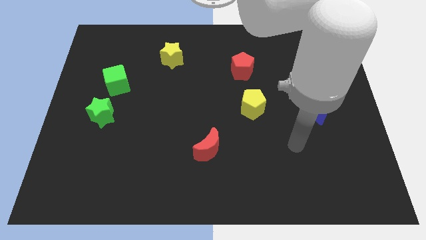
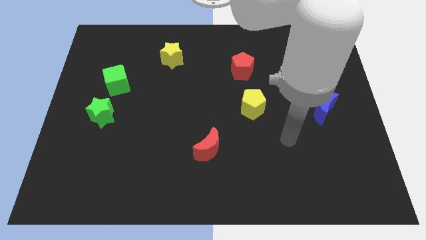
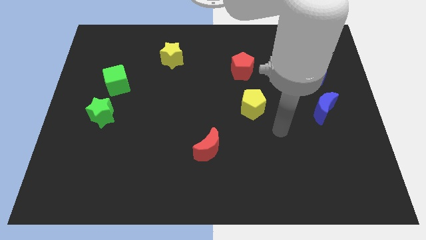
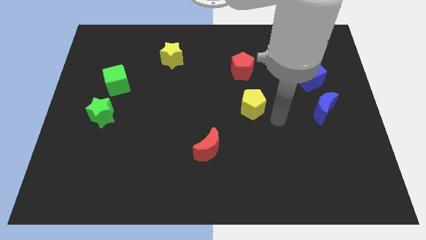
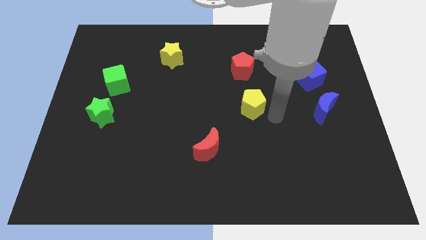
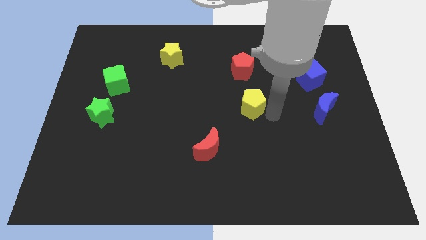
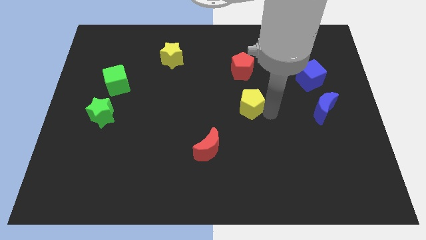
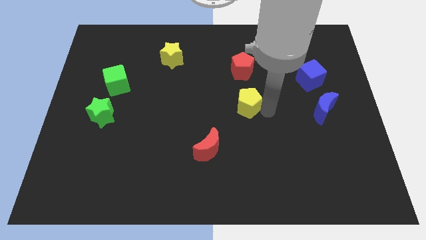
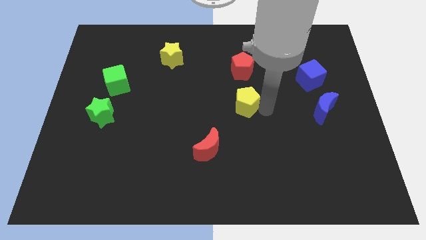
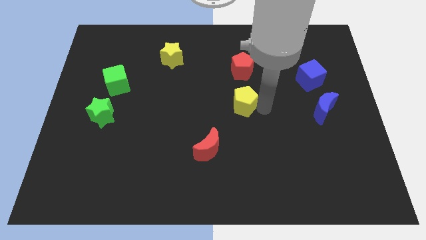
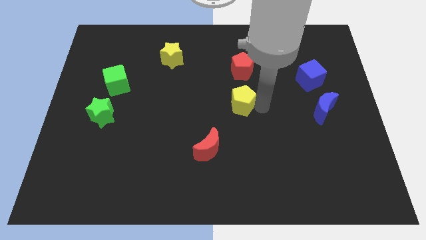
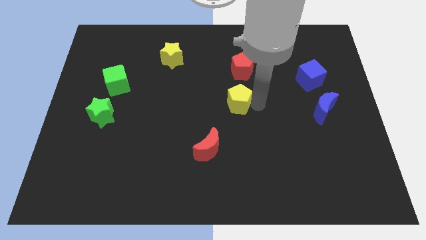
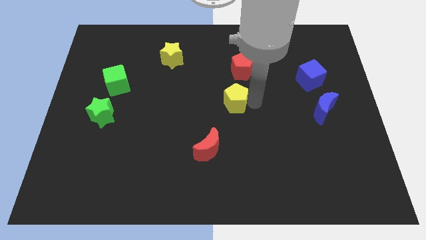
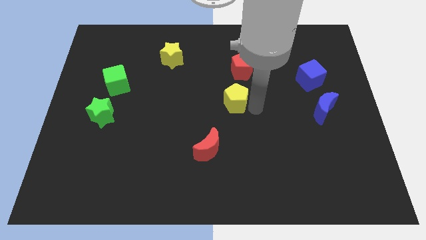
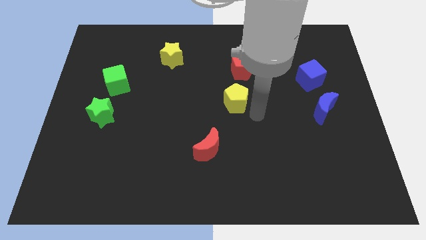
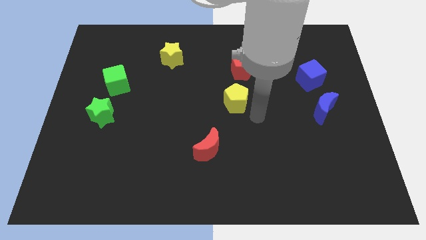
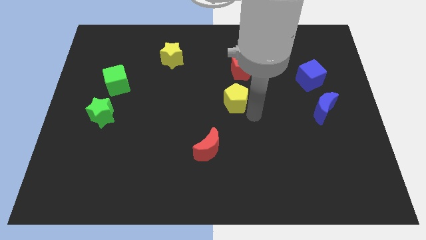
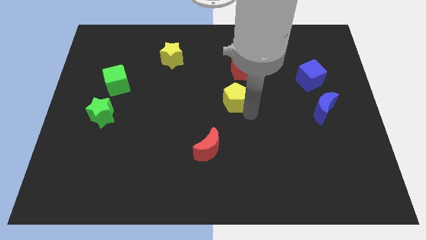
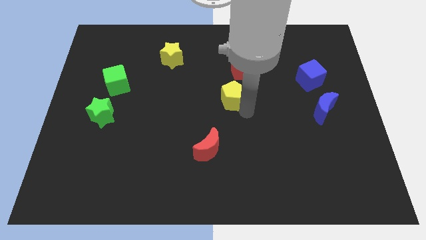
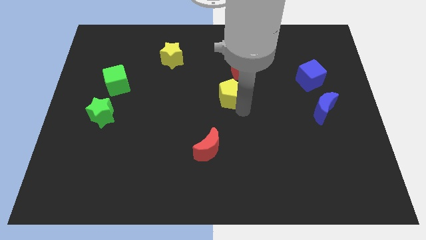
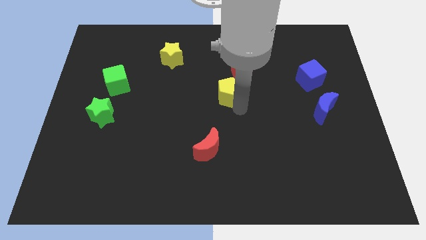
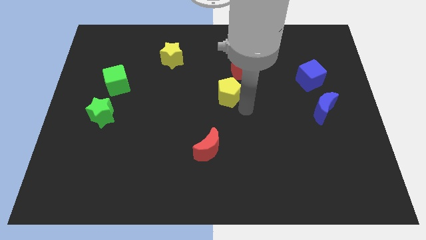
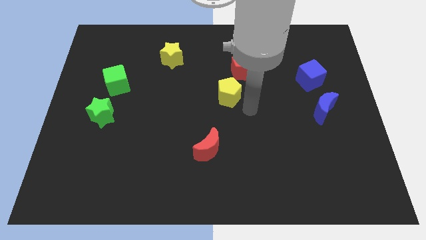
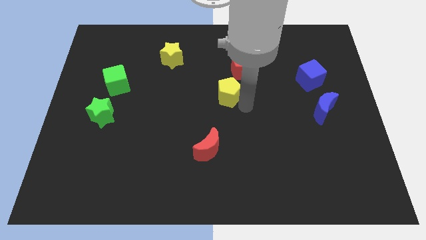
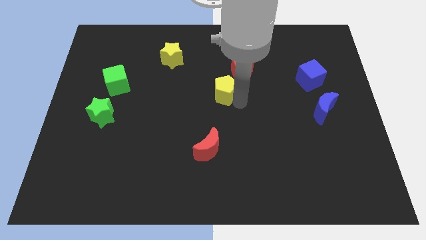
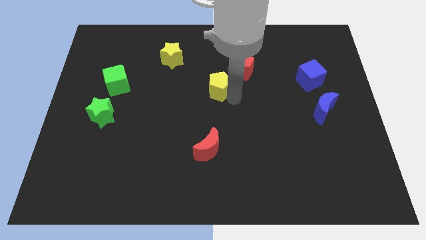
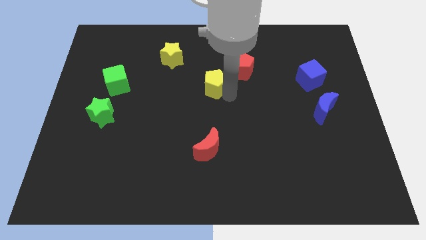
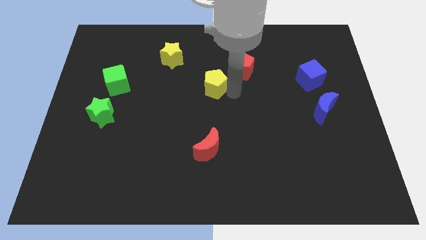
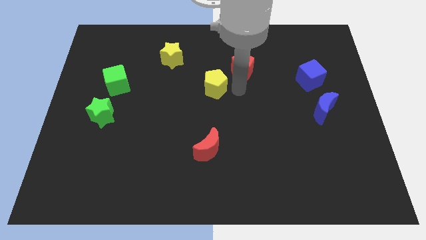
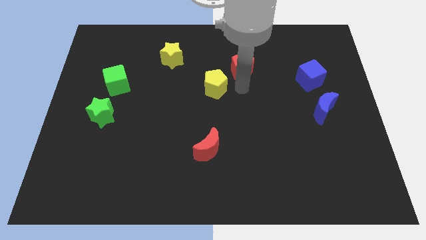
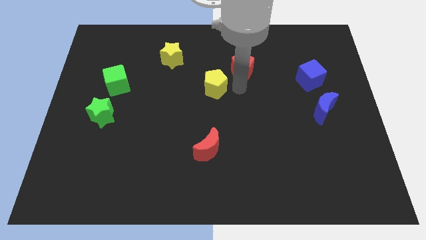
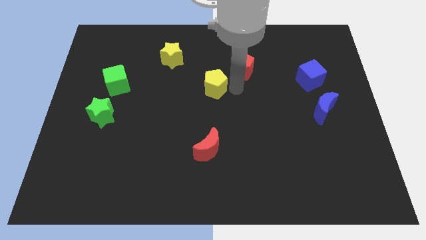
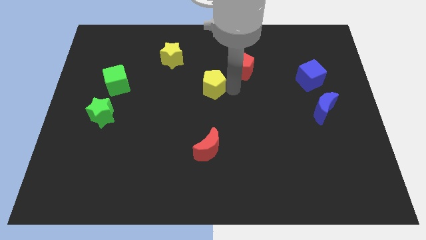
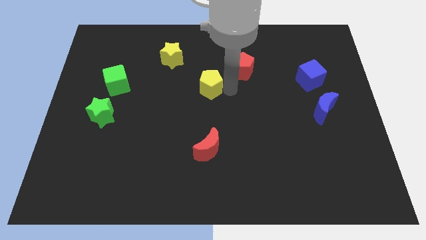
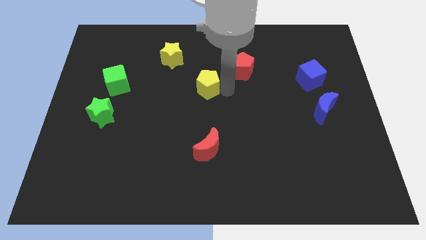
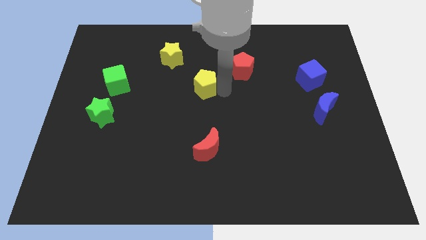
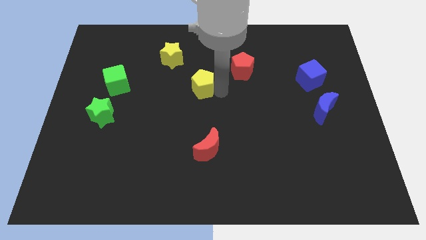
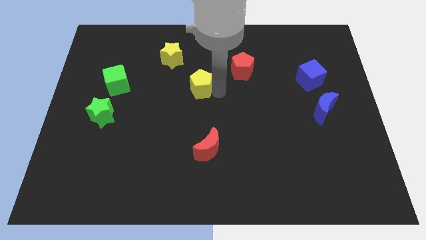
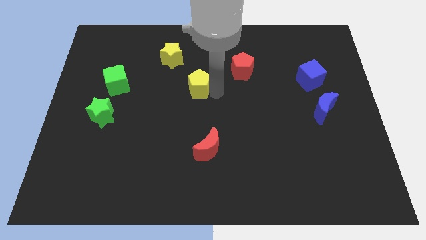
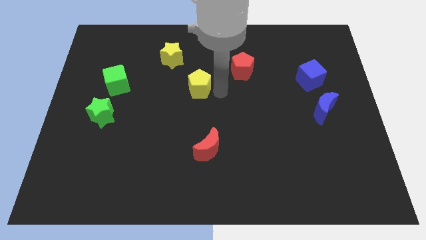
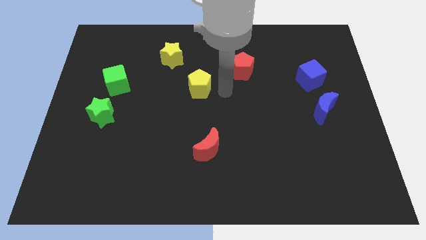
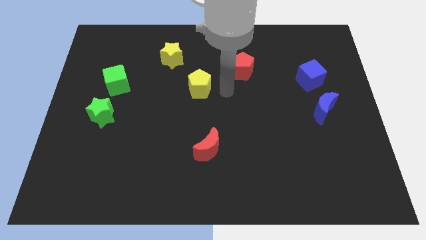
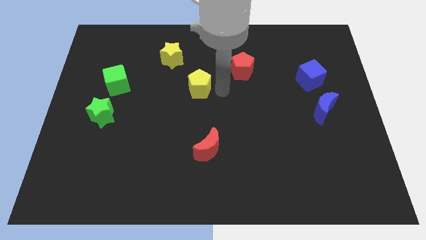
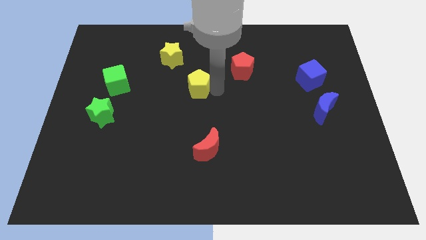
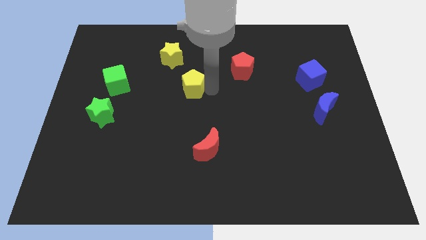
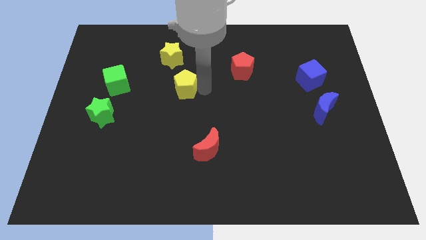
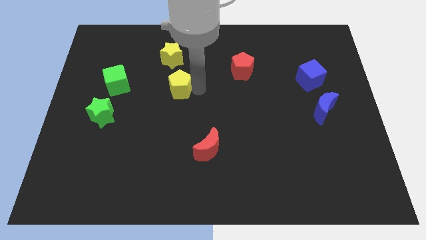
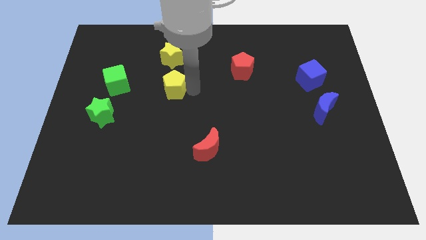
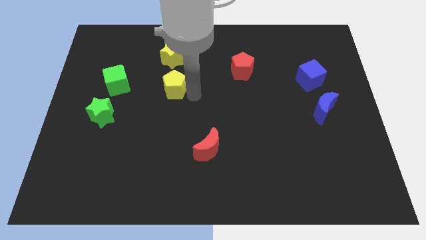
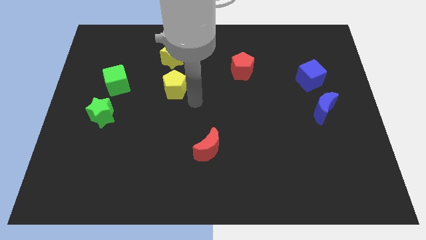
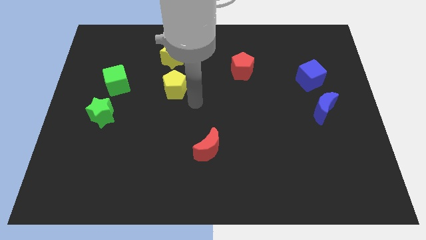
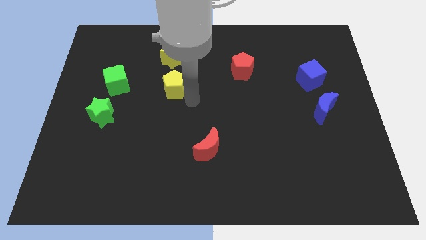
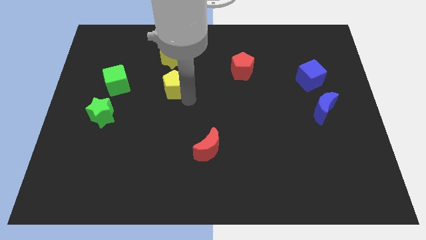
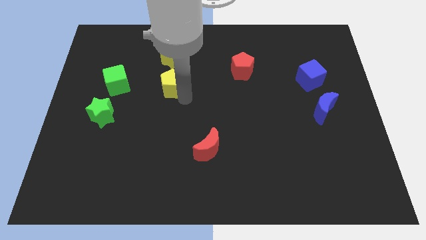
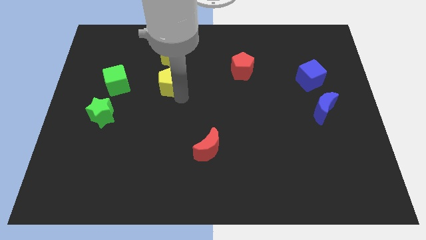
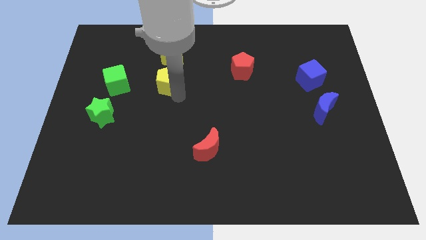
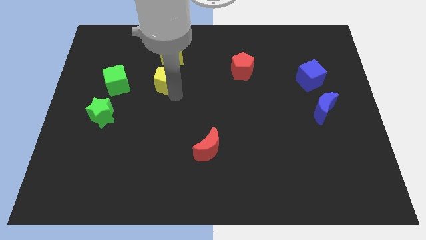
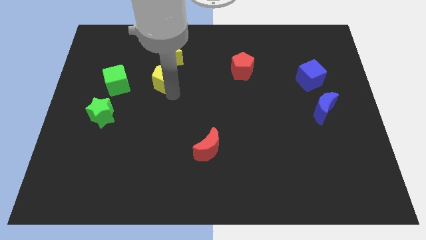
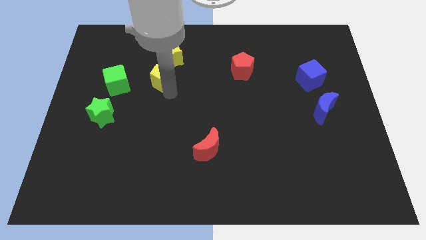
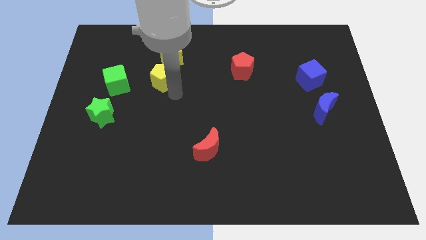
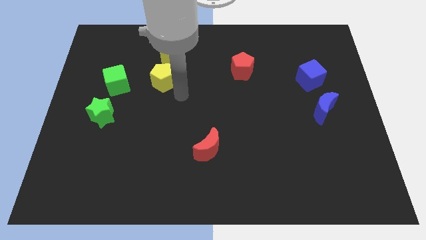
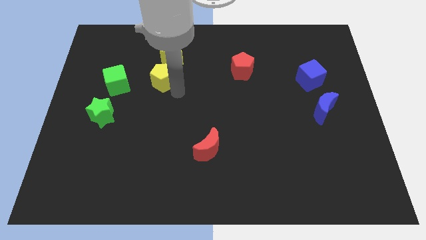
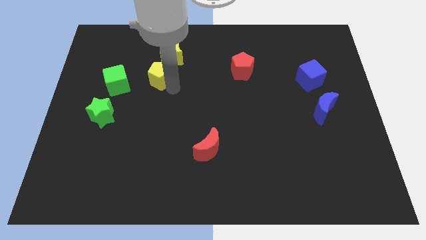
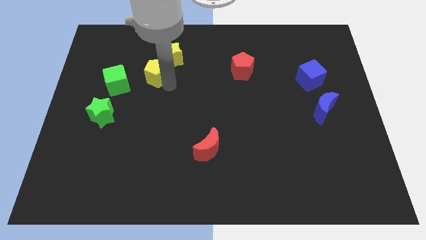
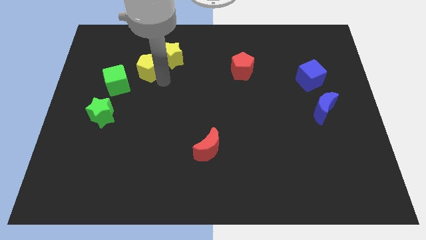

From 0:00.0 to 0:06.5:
slide the yellow pentagon just left of the yellow star
